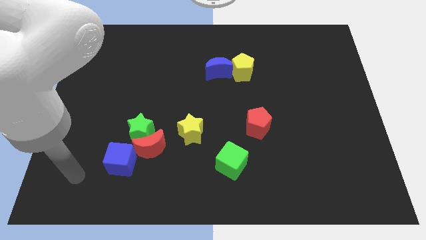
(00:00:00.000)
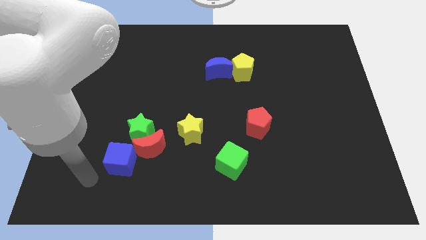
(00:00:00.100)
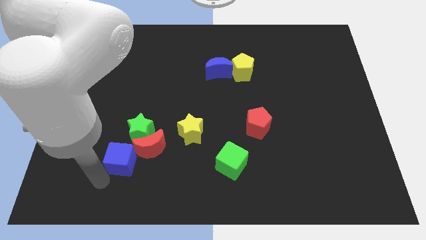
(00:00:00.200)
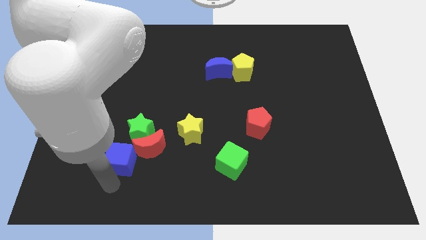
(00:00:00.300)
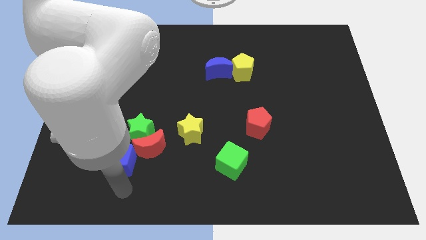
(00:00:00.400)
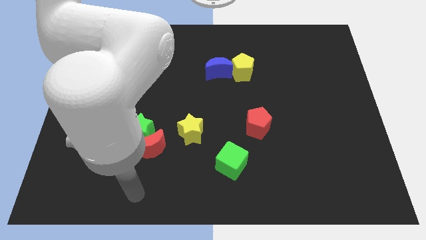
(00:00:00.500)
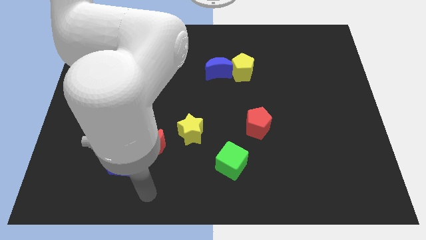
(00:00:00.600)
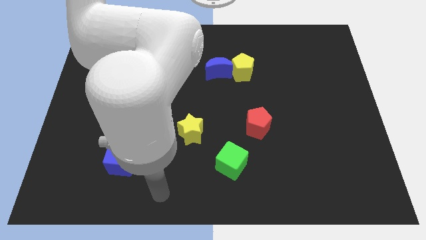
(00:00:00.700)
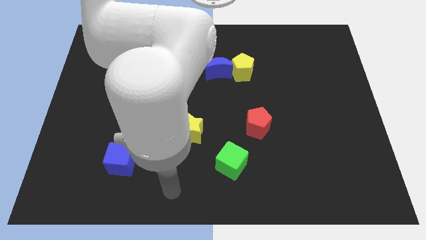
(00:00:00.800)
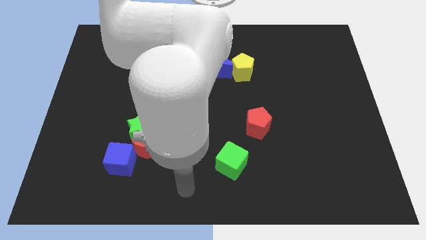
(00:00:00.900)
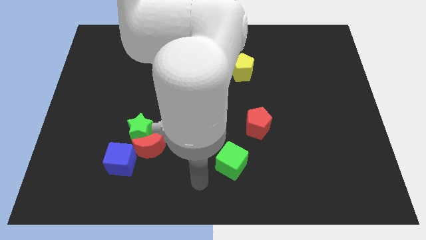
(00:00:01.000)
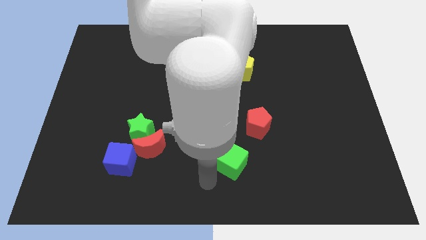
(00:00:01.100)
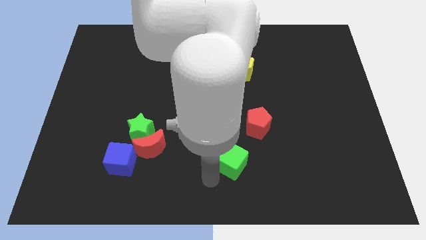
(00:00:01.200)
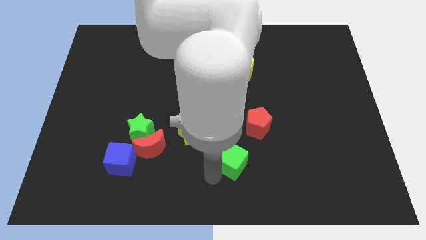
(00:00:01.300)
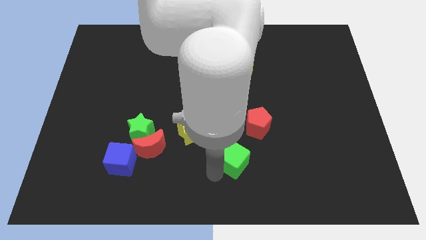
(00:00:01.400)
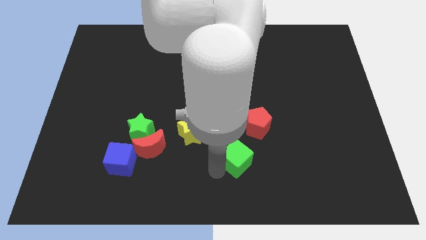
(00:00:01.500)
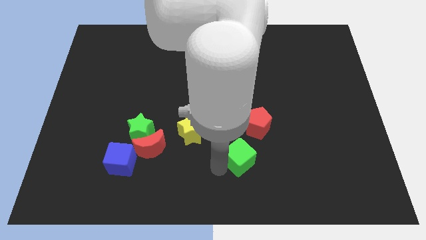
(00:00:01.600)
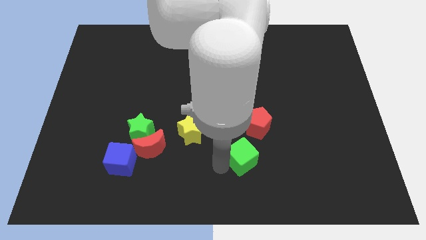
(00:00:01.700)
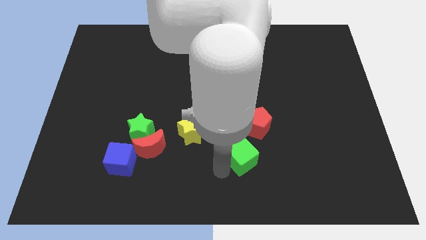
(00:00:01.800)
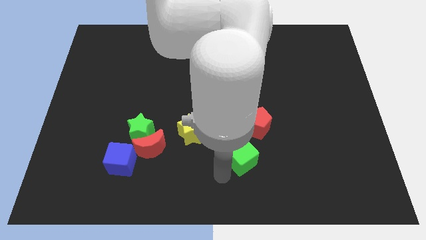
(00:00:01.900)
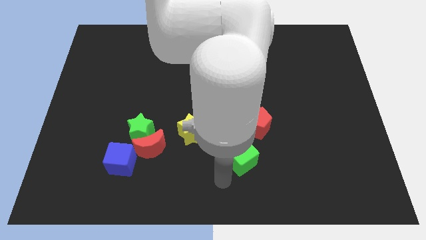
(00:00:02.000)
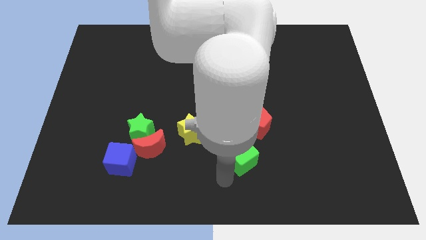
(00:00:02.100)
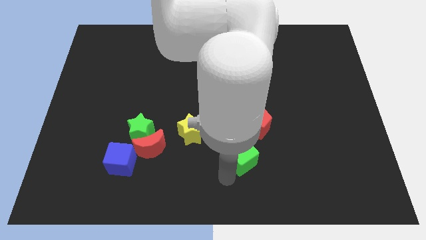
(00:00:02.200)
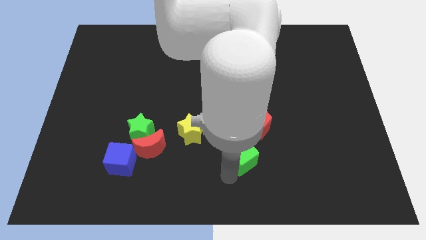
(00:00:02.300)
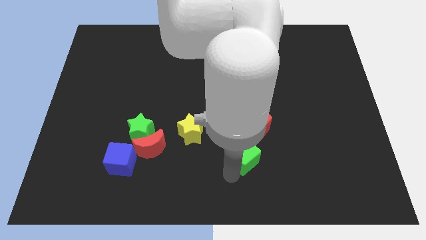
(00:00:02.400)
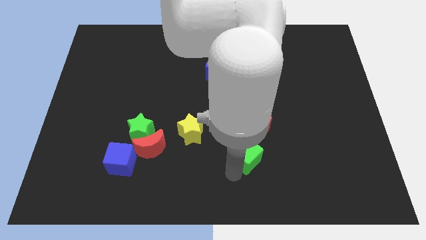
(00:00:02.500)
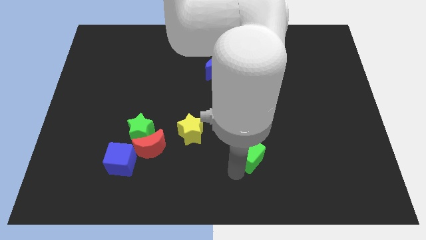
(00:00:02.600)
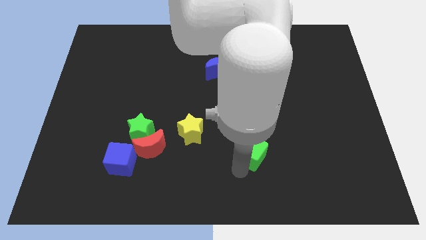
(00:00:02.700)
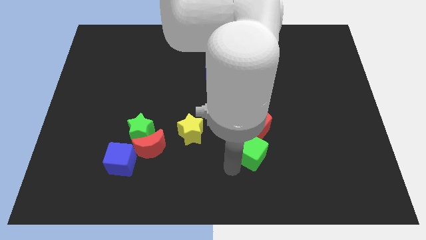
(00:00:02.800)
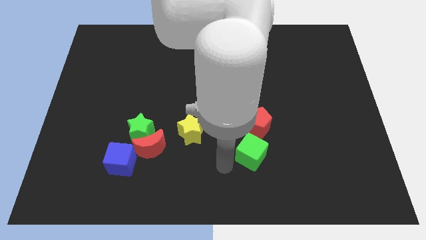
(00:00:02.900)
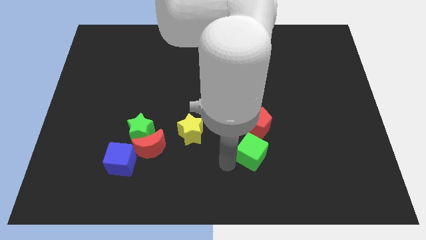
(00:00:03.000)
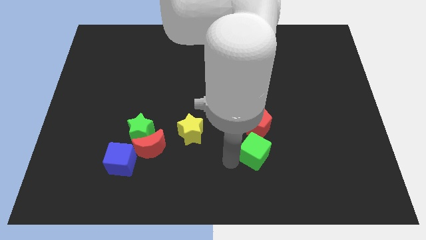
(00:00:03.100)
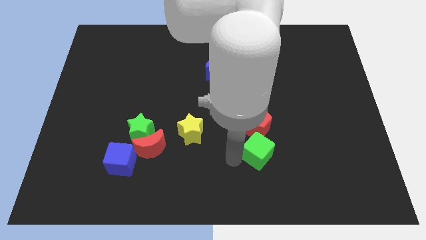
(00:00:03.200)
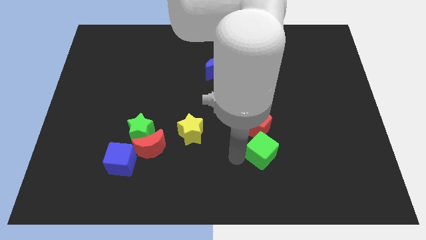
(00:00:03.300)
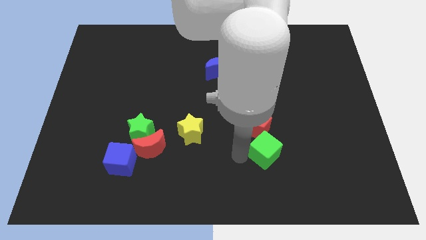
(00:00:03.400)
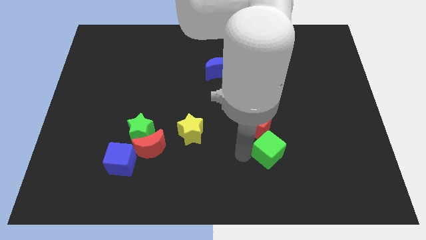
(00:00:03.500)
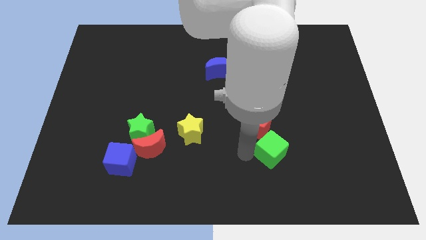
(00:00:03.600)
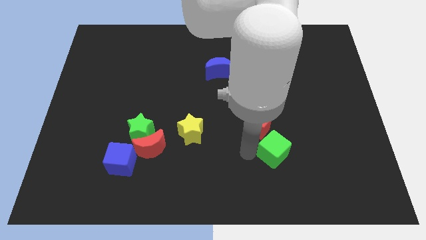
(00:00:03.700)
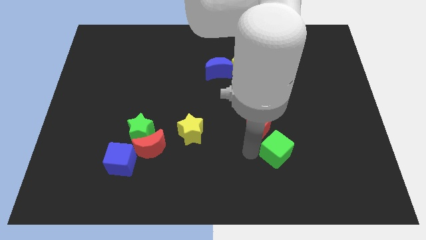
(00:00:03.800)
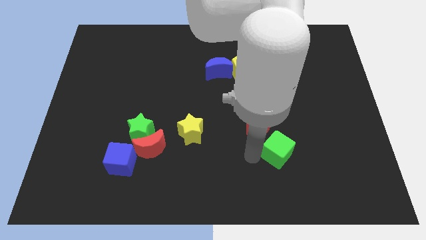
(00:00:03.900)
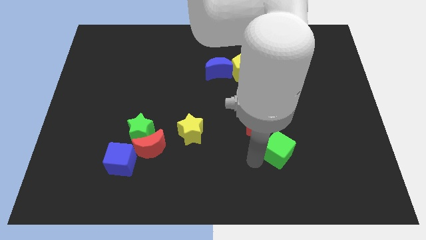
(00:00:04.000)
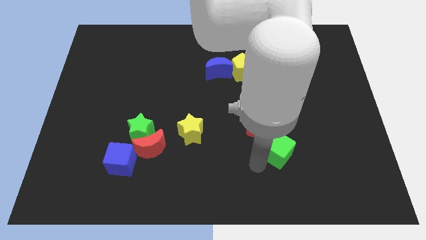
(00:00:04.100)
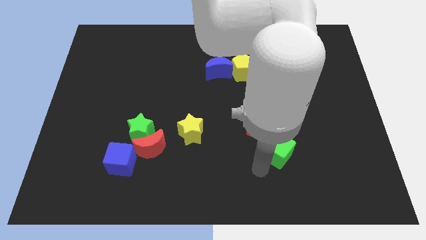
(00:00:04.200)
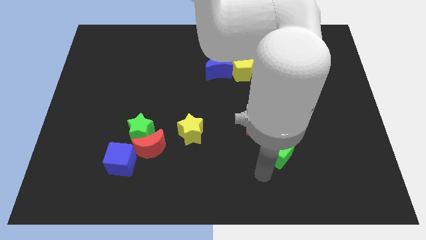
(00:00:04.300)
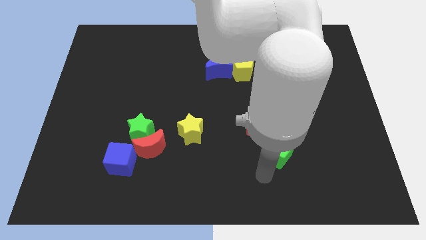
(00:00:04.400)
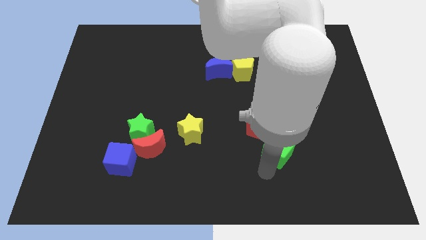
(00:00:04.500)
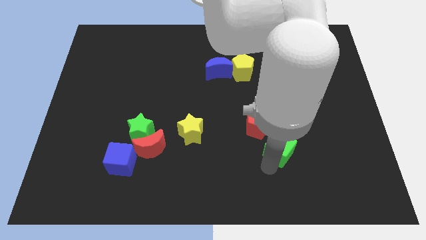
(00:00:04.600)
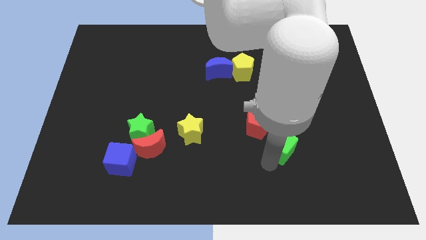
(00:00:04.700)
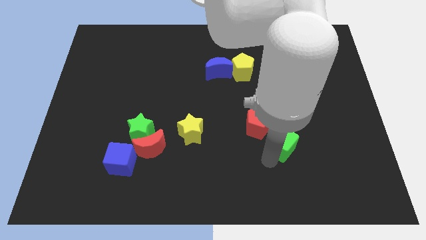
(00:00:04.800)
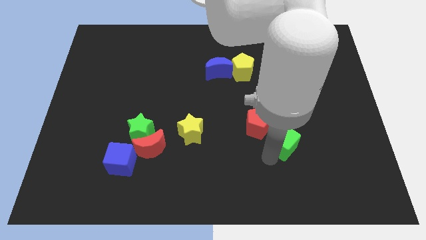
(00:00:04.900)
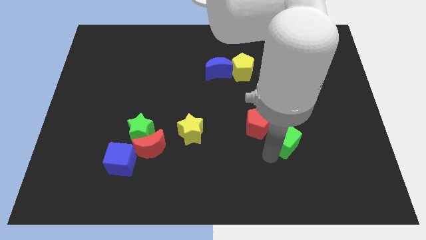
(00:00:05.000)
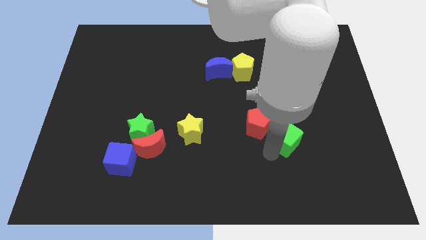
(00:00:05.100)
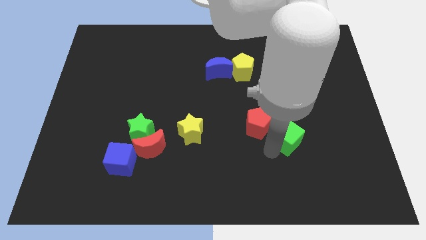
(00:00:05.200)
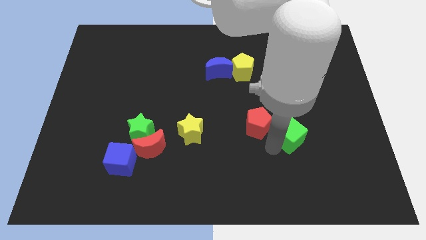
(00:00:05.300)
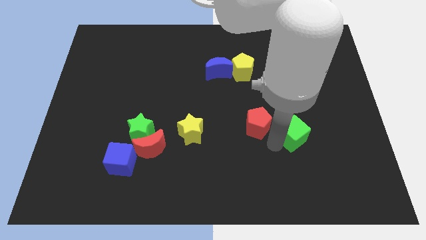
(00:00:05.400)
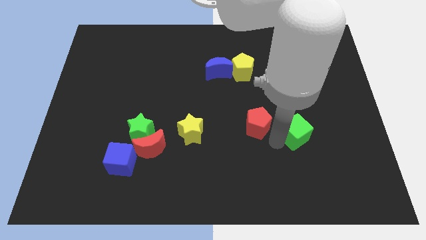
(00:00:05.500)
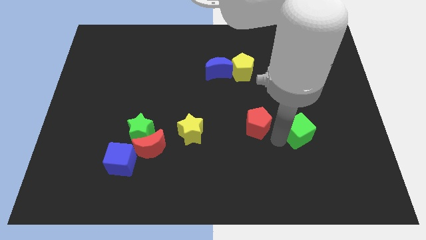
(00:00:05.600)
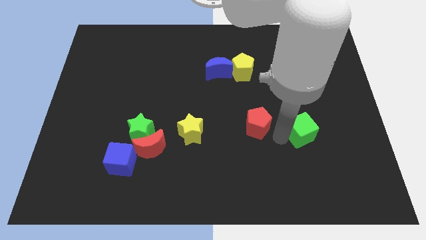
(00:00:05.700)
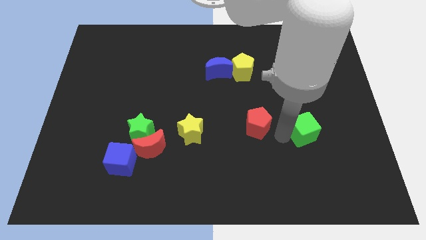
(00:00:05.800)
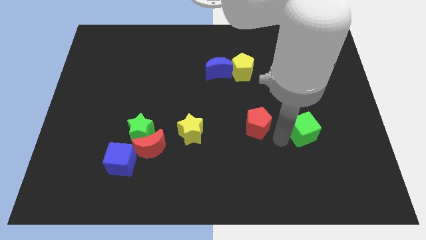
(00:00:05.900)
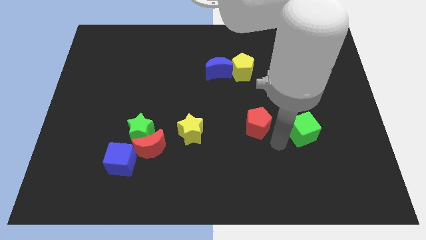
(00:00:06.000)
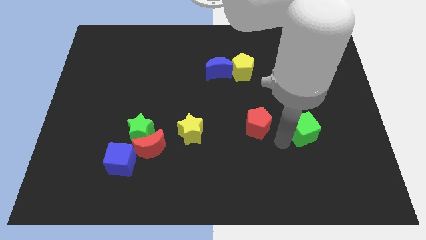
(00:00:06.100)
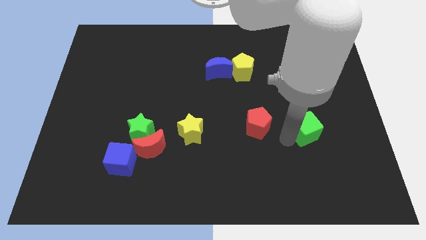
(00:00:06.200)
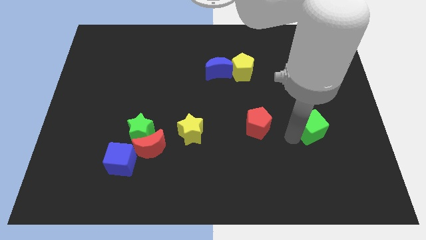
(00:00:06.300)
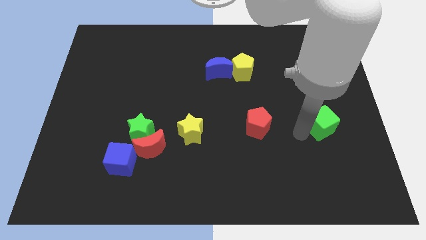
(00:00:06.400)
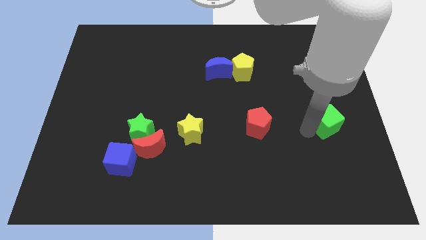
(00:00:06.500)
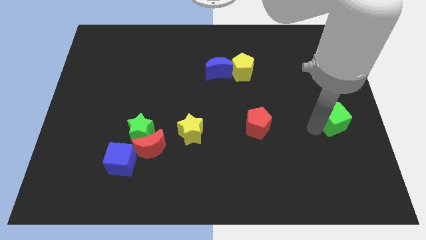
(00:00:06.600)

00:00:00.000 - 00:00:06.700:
push the green cube to the right side of the board
